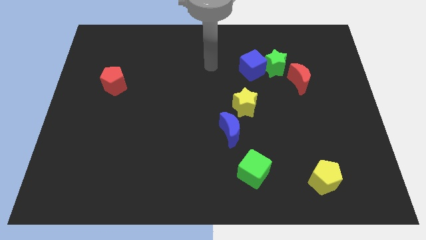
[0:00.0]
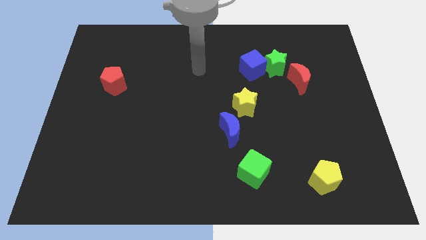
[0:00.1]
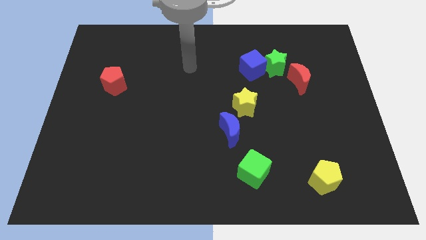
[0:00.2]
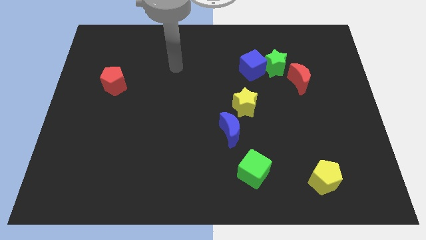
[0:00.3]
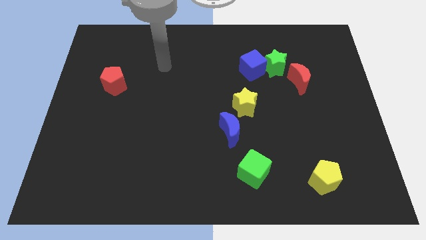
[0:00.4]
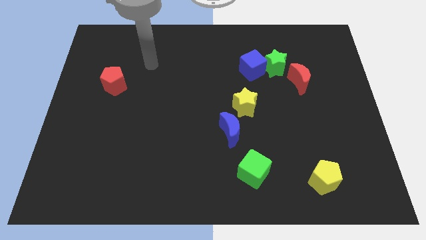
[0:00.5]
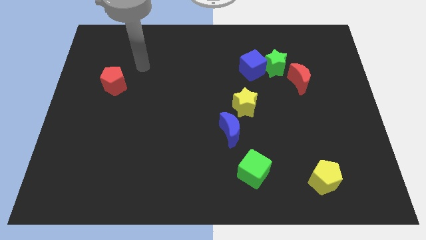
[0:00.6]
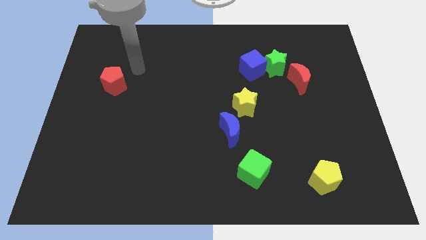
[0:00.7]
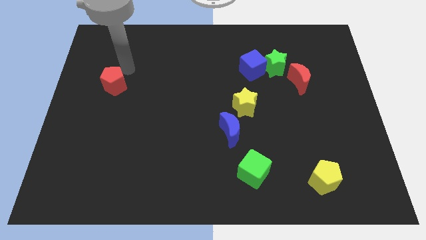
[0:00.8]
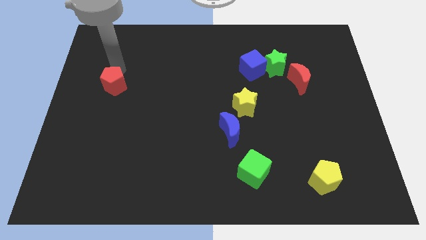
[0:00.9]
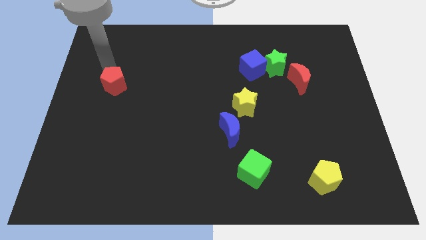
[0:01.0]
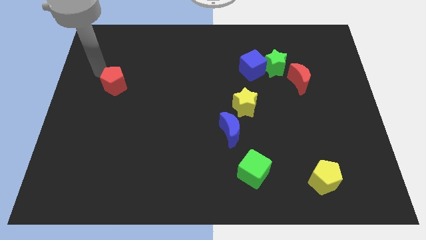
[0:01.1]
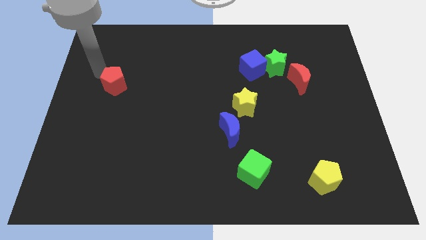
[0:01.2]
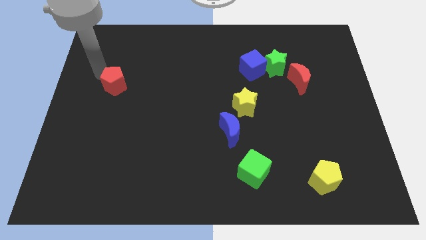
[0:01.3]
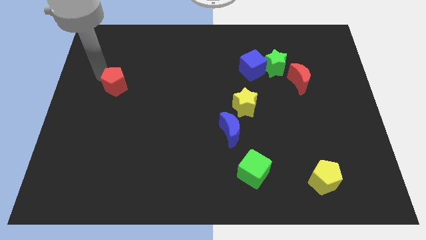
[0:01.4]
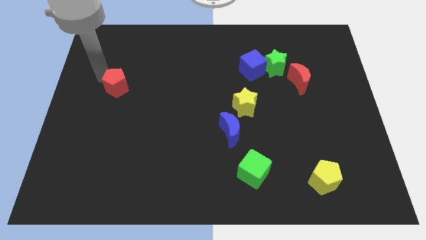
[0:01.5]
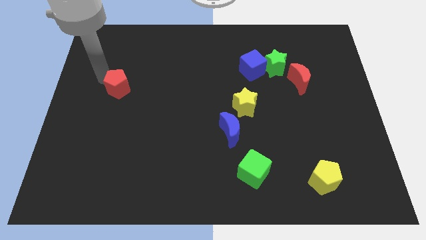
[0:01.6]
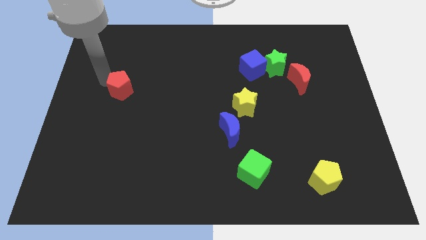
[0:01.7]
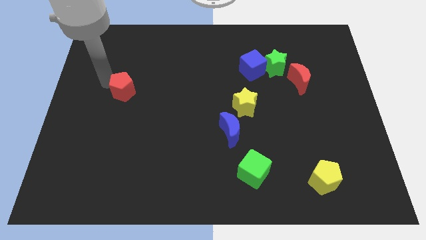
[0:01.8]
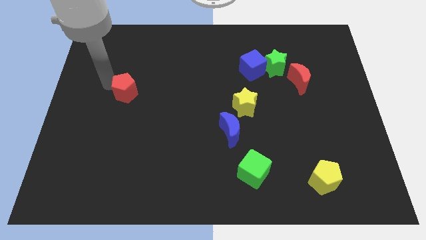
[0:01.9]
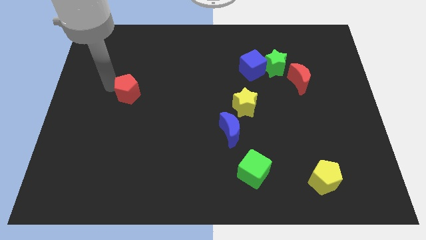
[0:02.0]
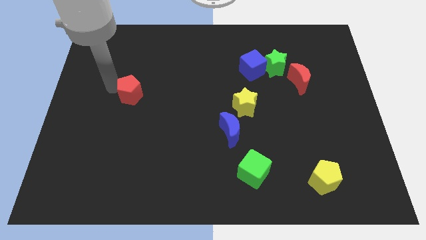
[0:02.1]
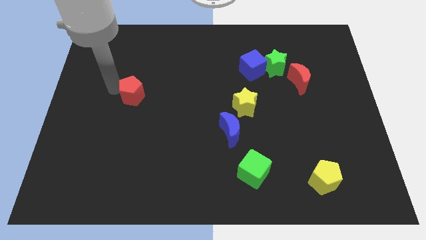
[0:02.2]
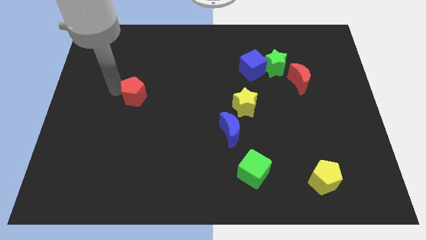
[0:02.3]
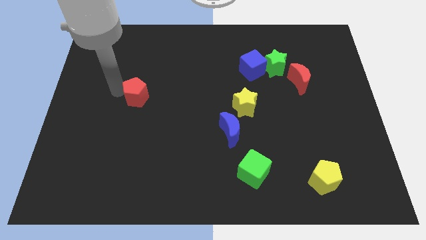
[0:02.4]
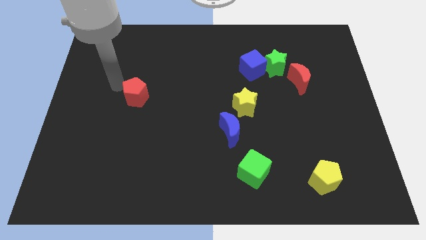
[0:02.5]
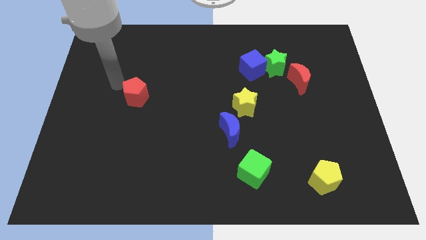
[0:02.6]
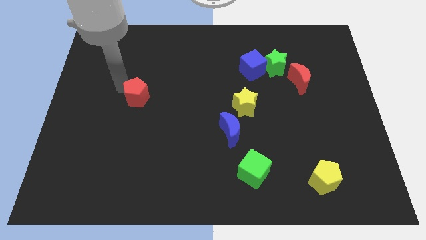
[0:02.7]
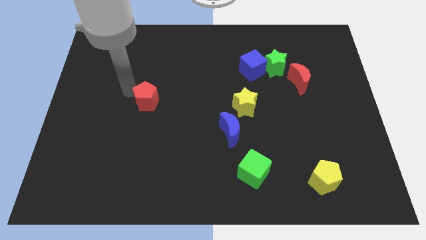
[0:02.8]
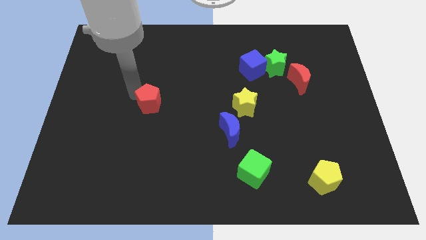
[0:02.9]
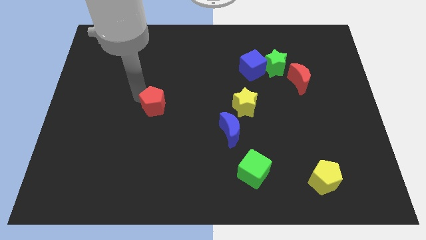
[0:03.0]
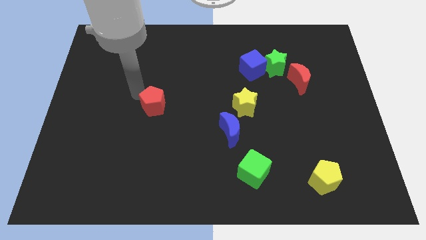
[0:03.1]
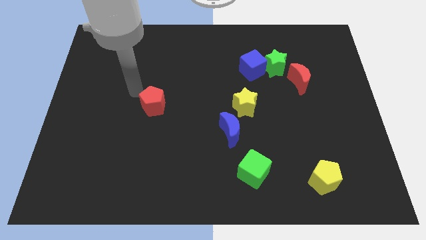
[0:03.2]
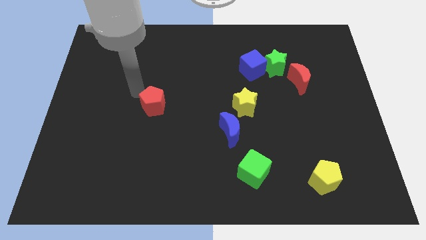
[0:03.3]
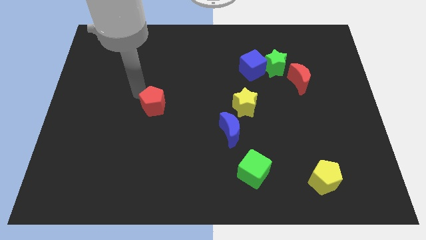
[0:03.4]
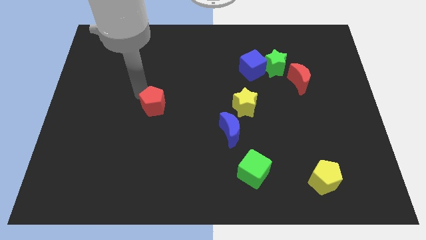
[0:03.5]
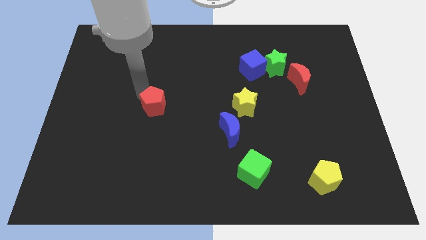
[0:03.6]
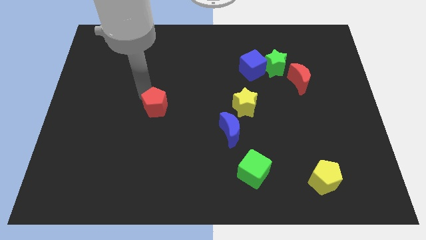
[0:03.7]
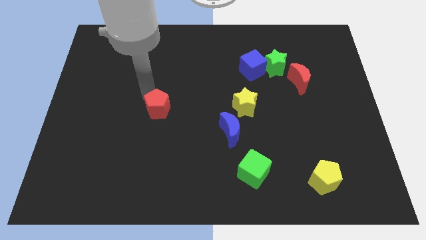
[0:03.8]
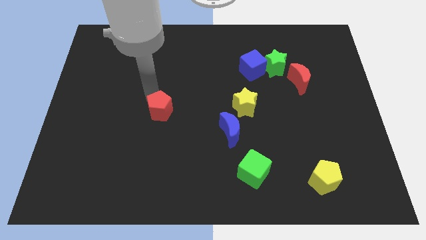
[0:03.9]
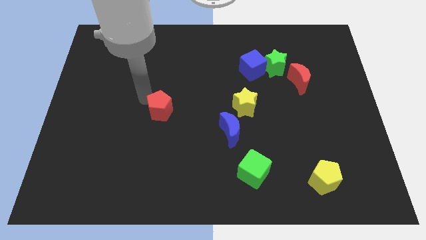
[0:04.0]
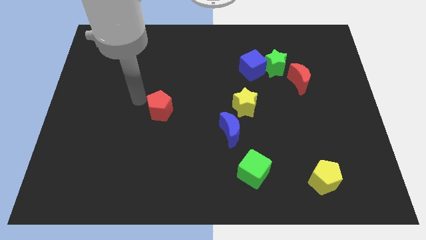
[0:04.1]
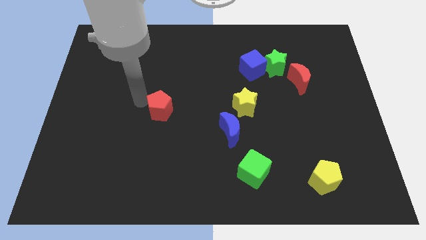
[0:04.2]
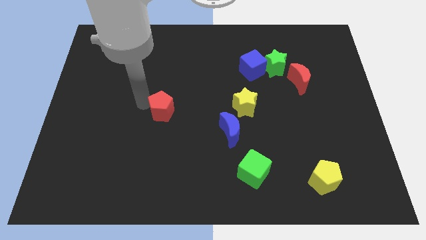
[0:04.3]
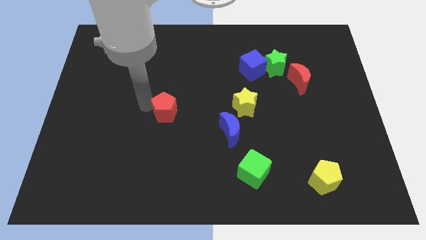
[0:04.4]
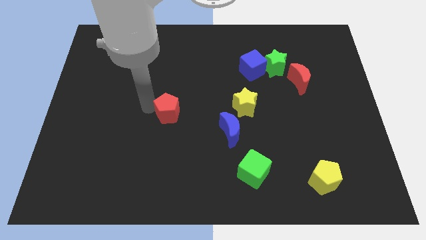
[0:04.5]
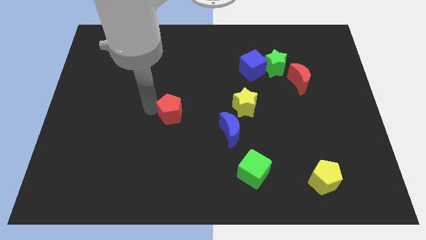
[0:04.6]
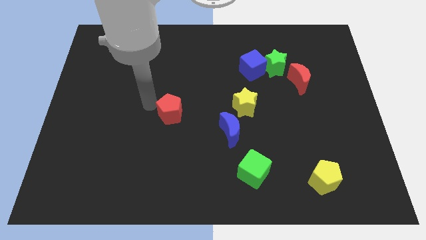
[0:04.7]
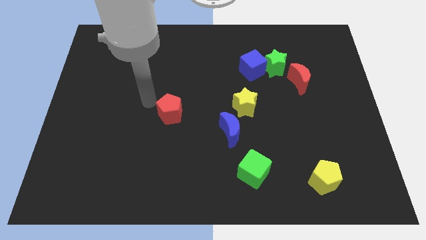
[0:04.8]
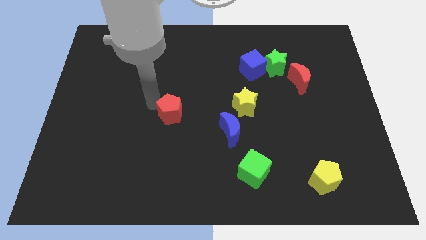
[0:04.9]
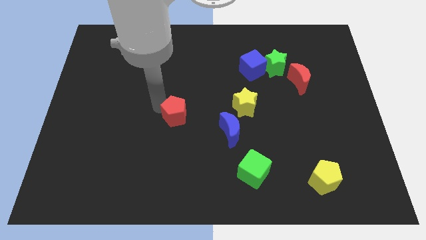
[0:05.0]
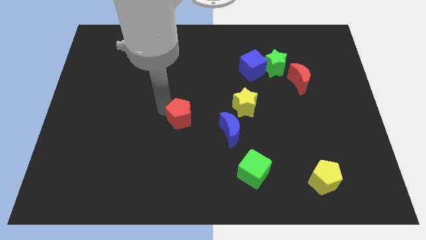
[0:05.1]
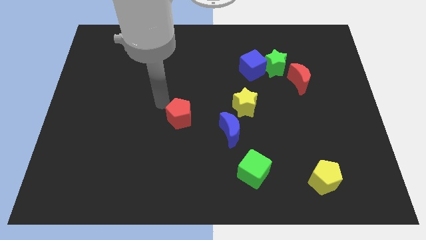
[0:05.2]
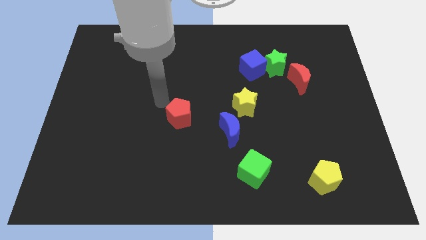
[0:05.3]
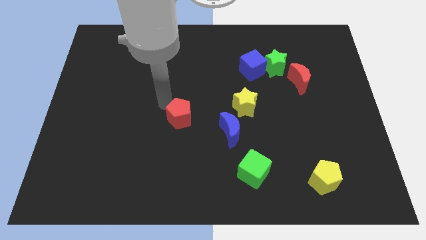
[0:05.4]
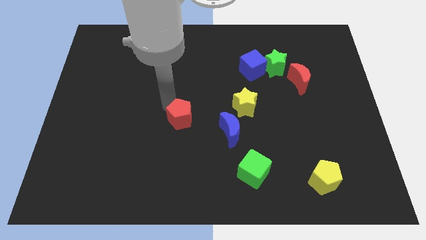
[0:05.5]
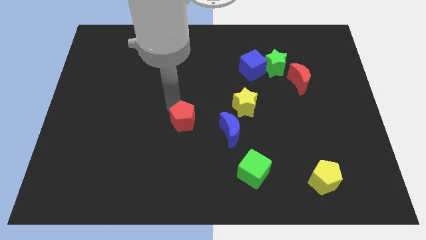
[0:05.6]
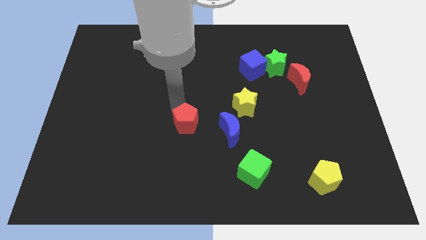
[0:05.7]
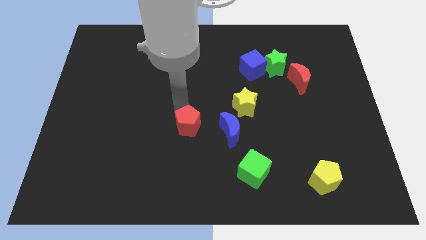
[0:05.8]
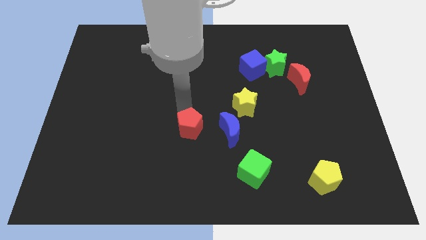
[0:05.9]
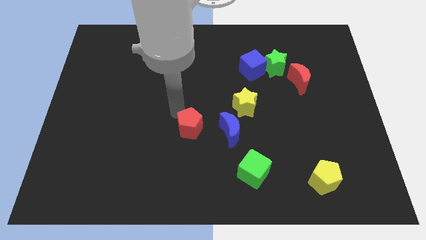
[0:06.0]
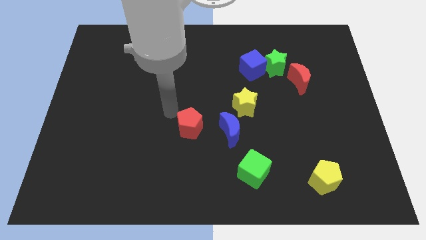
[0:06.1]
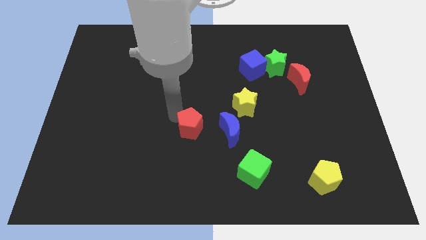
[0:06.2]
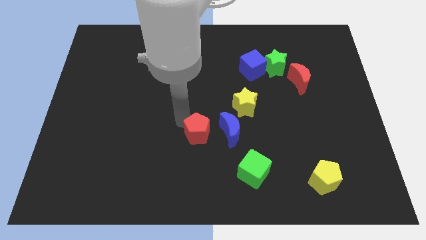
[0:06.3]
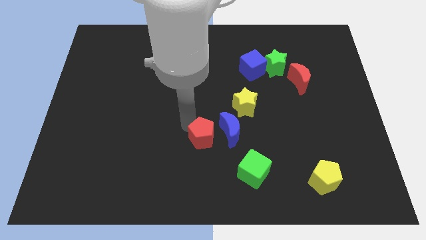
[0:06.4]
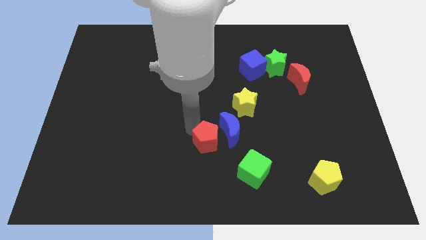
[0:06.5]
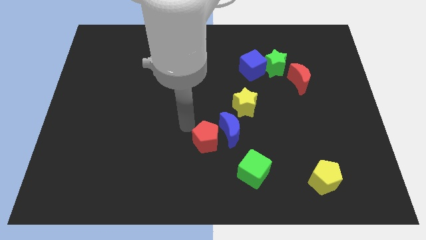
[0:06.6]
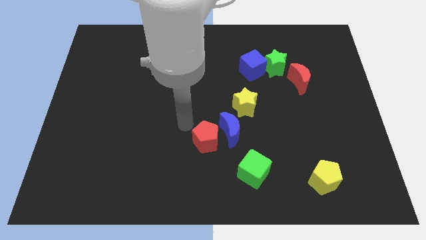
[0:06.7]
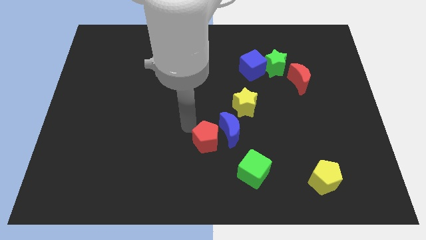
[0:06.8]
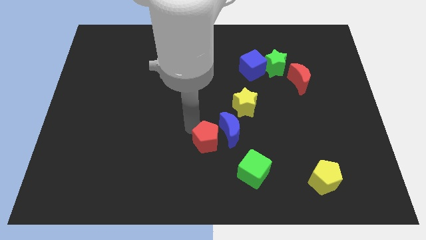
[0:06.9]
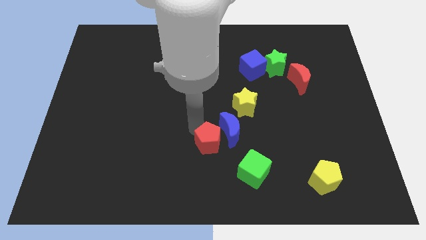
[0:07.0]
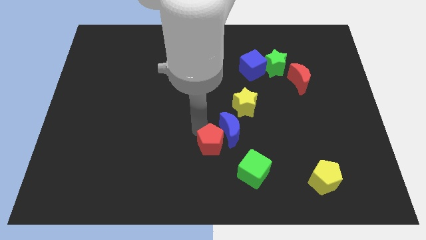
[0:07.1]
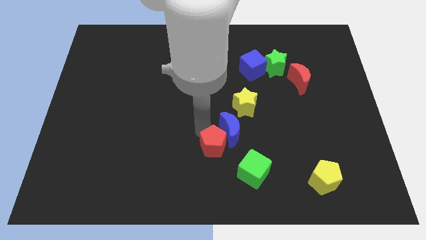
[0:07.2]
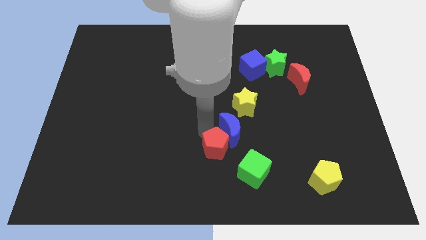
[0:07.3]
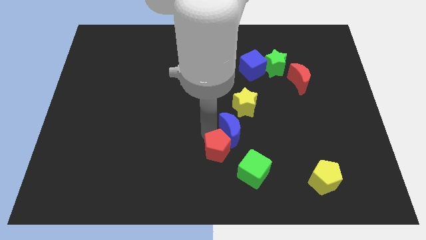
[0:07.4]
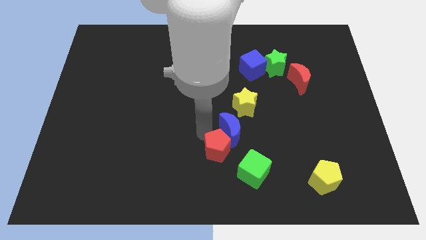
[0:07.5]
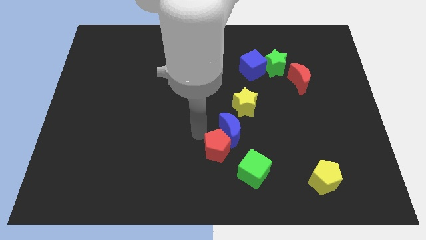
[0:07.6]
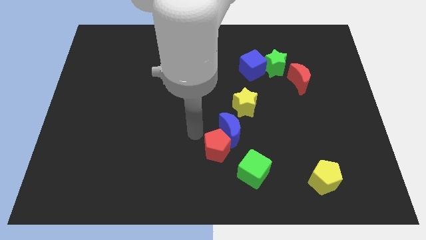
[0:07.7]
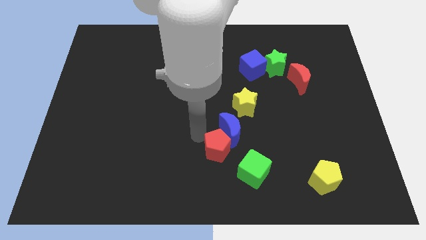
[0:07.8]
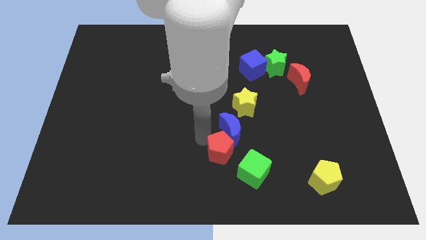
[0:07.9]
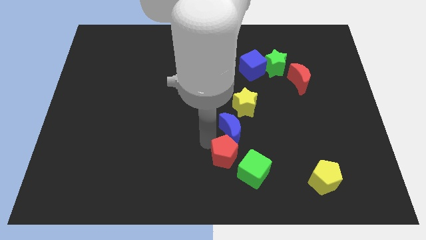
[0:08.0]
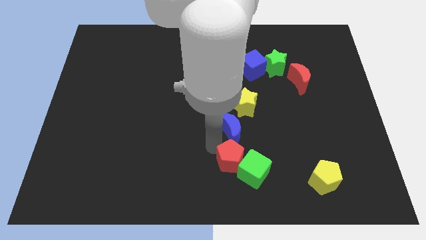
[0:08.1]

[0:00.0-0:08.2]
move the red pentagon to the green cube

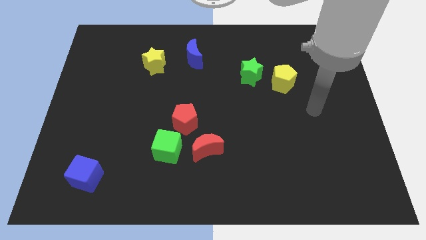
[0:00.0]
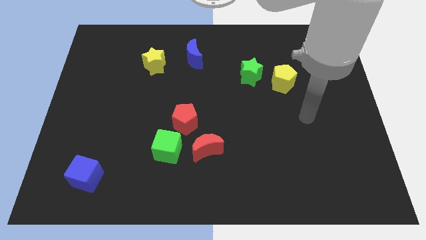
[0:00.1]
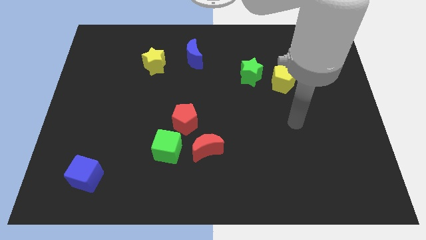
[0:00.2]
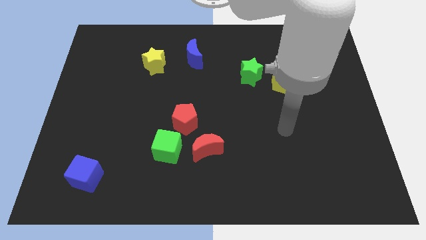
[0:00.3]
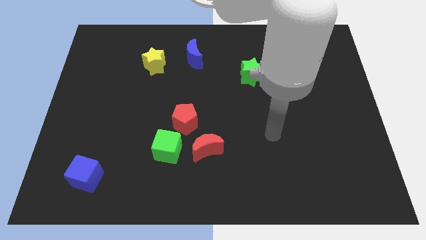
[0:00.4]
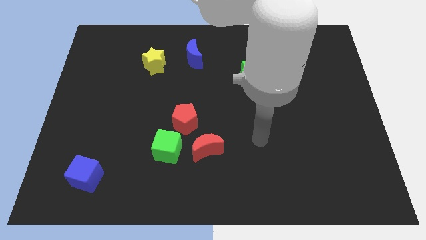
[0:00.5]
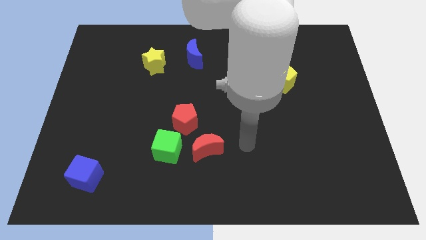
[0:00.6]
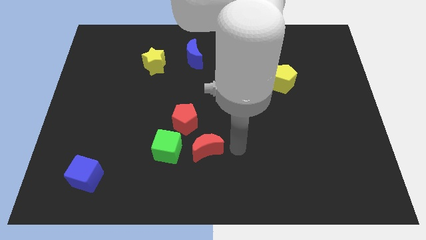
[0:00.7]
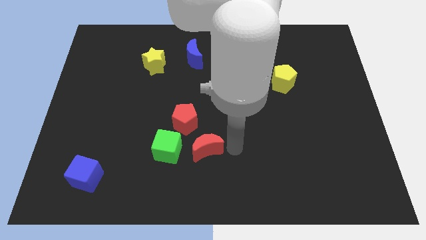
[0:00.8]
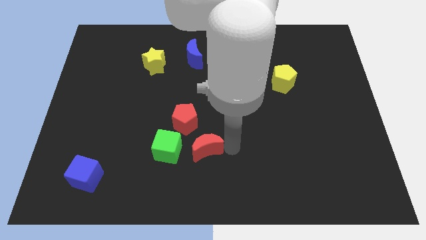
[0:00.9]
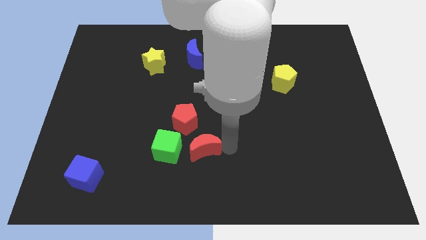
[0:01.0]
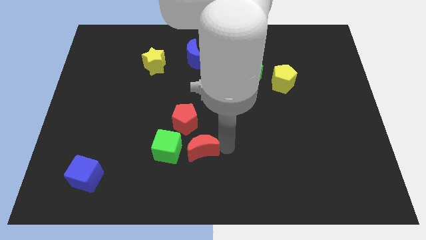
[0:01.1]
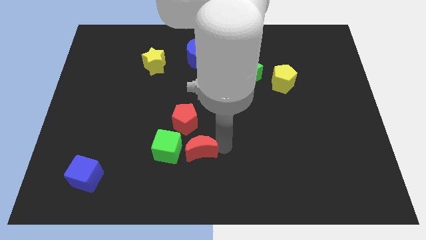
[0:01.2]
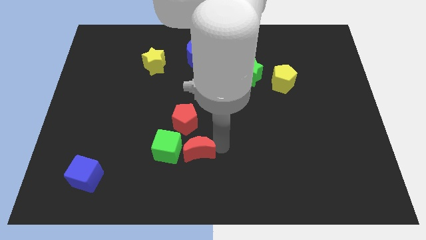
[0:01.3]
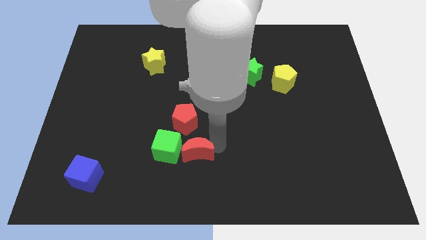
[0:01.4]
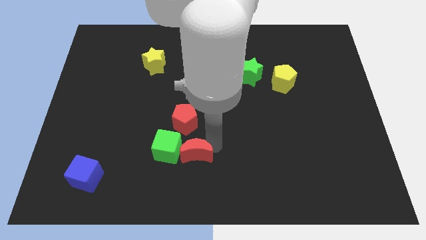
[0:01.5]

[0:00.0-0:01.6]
move the red moon close to the green cube
